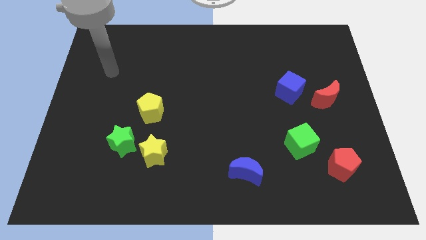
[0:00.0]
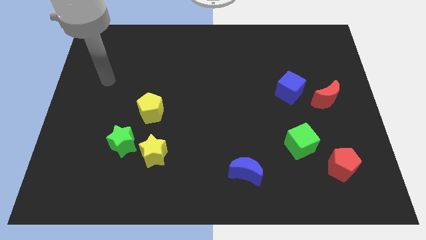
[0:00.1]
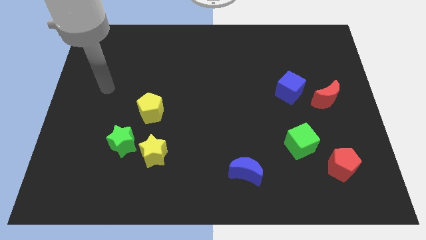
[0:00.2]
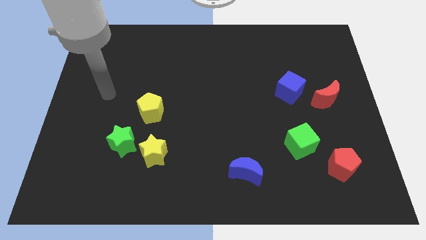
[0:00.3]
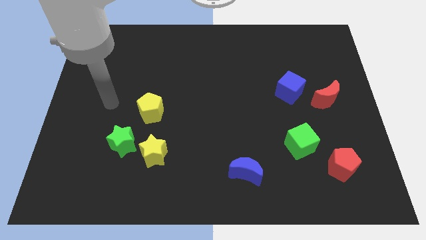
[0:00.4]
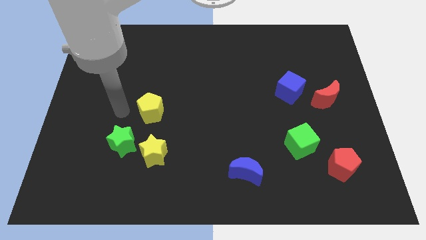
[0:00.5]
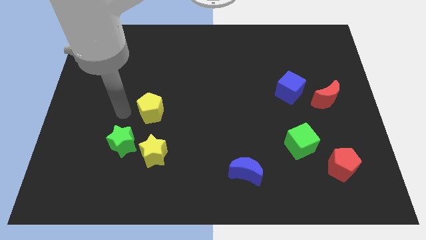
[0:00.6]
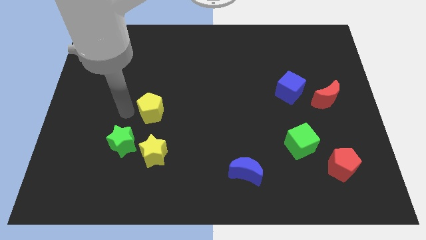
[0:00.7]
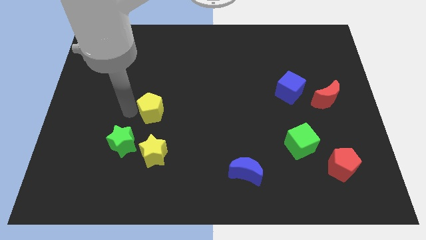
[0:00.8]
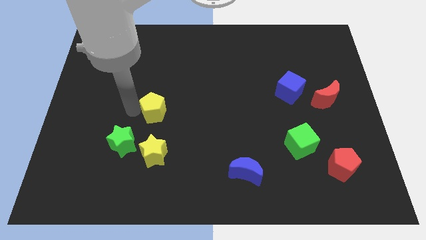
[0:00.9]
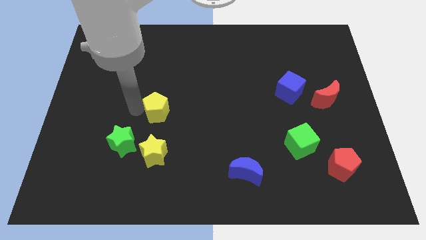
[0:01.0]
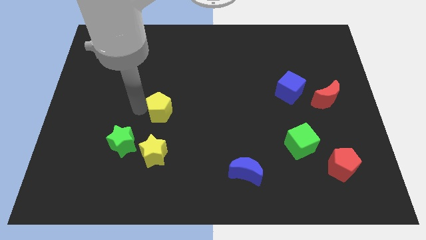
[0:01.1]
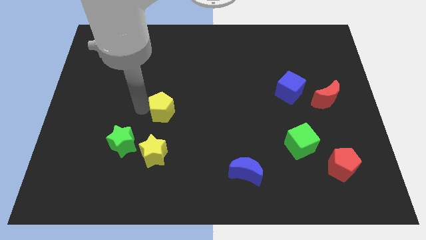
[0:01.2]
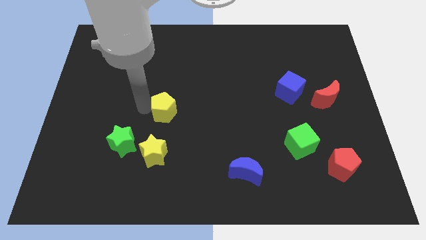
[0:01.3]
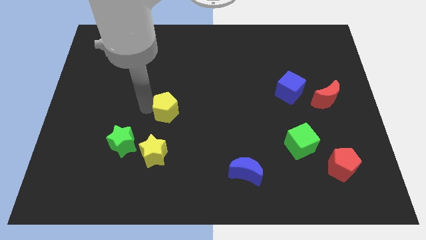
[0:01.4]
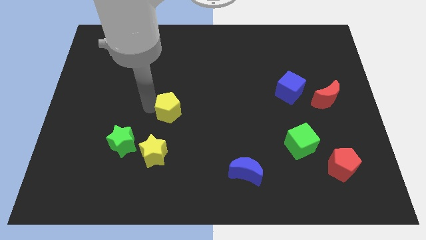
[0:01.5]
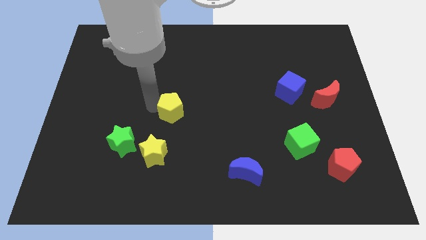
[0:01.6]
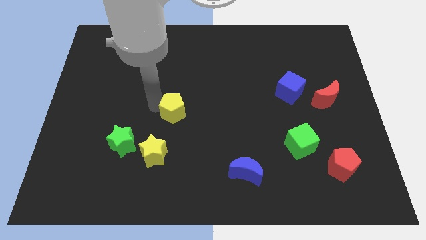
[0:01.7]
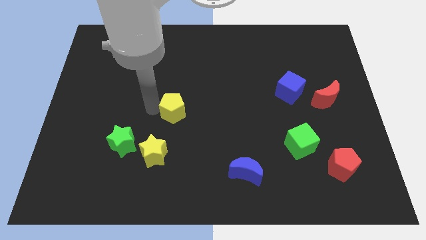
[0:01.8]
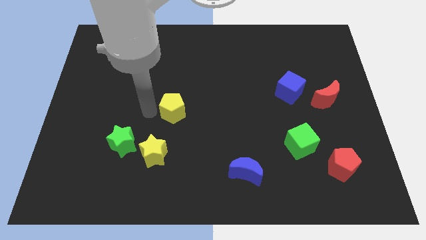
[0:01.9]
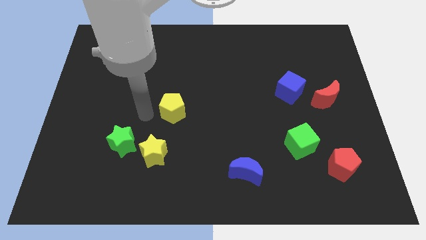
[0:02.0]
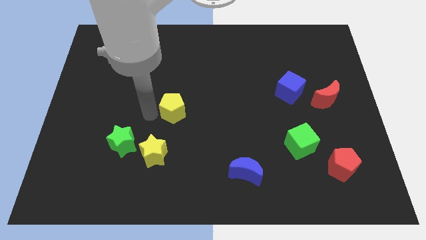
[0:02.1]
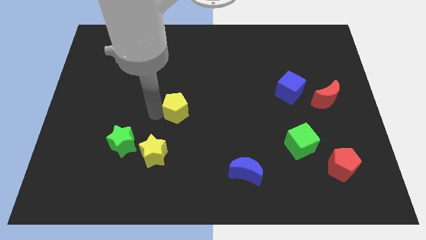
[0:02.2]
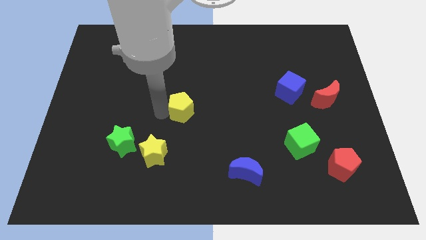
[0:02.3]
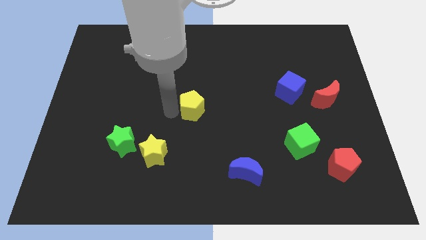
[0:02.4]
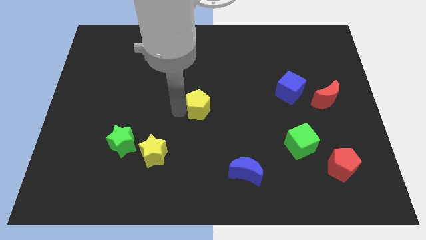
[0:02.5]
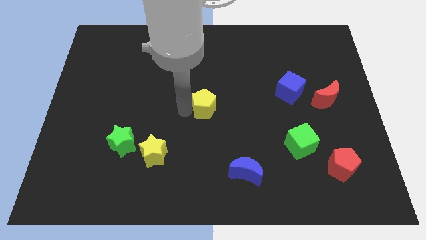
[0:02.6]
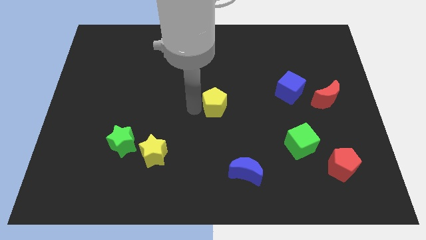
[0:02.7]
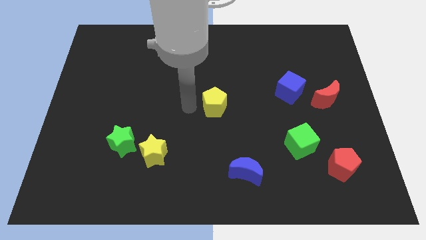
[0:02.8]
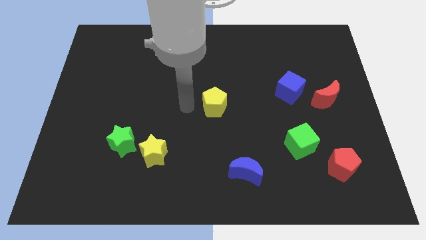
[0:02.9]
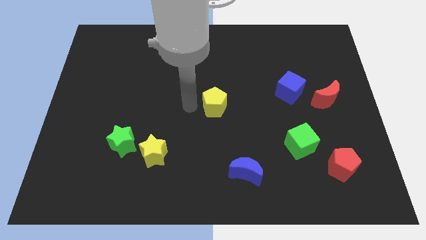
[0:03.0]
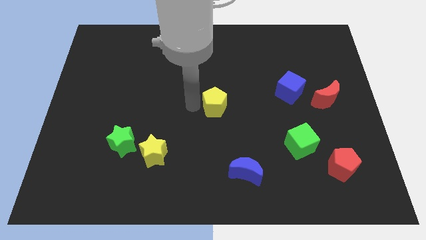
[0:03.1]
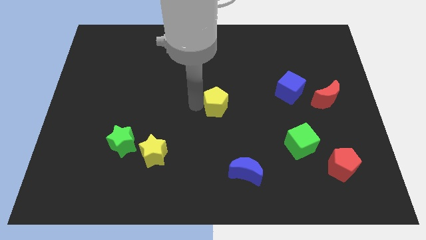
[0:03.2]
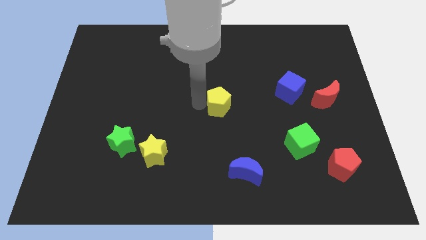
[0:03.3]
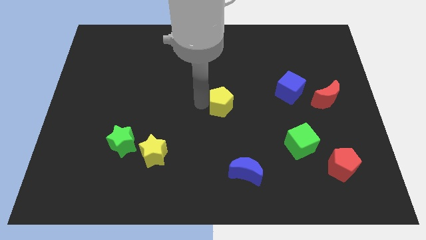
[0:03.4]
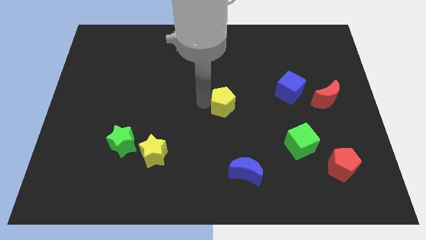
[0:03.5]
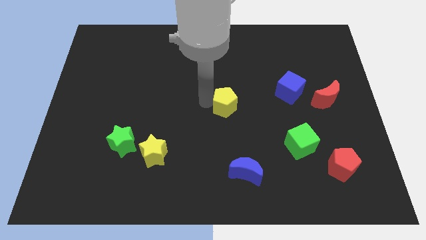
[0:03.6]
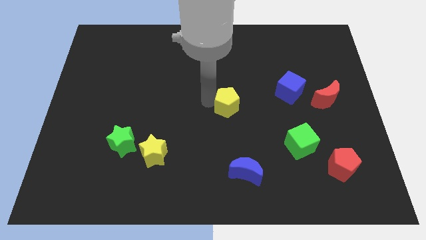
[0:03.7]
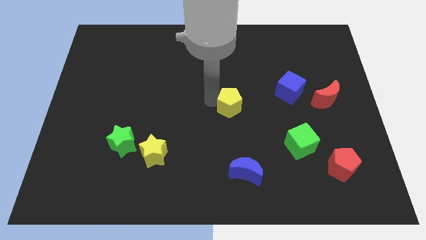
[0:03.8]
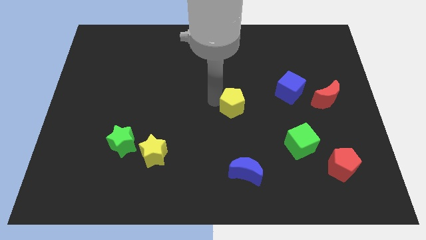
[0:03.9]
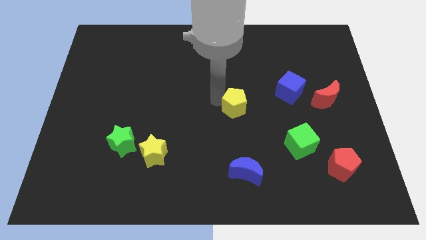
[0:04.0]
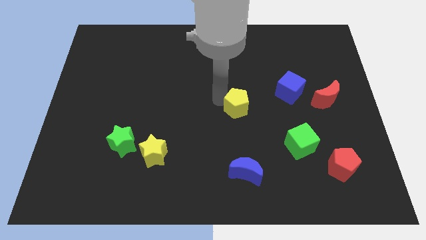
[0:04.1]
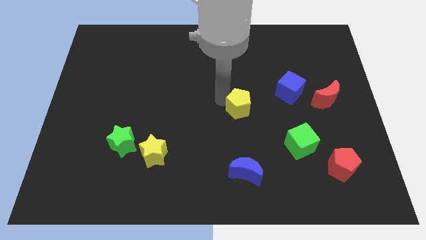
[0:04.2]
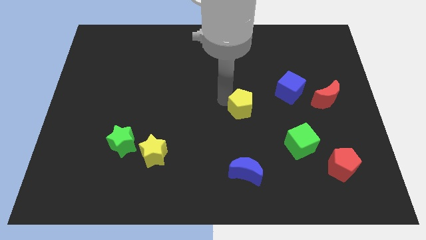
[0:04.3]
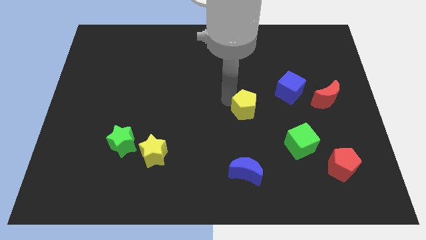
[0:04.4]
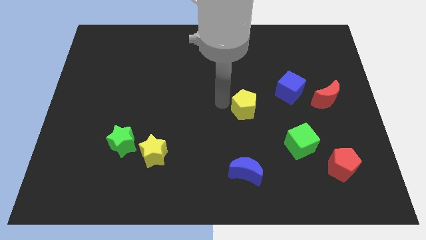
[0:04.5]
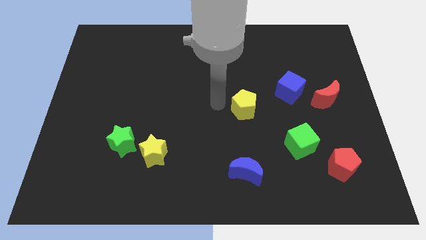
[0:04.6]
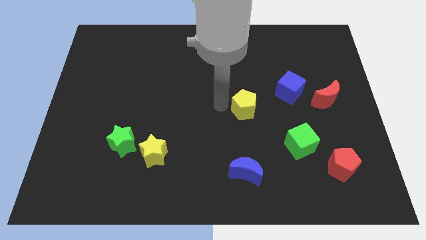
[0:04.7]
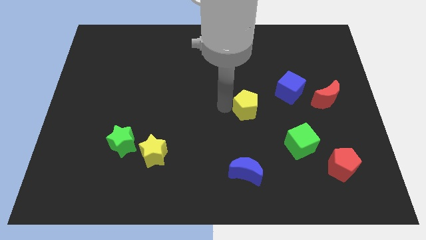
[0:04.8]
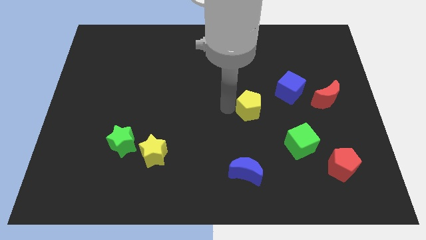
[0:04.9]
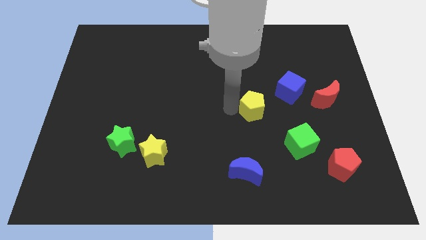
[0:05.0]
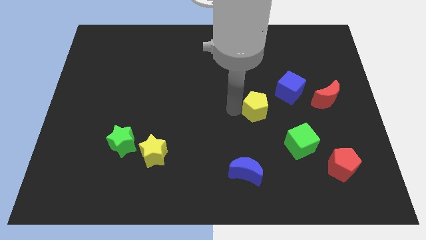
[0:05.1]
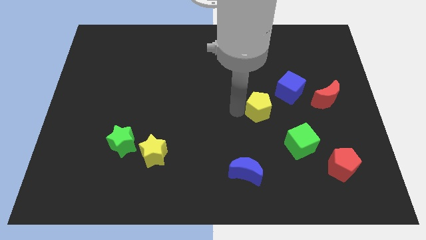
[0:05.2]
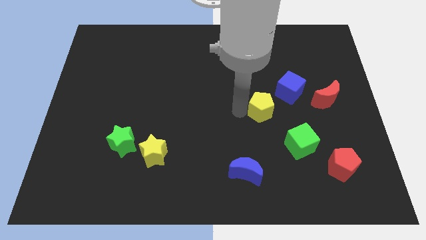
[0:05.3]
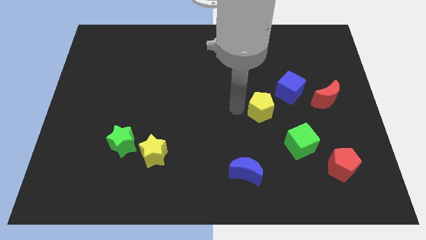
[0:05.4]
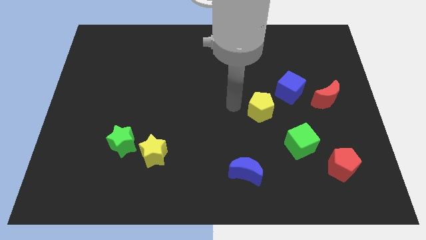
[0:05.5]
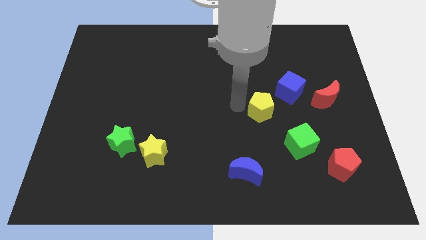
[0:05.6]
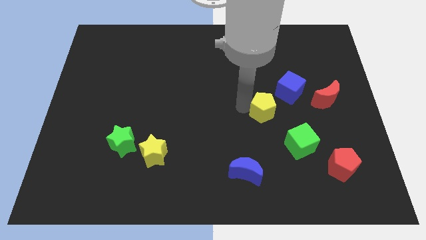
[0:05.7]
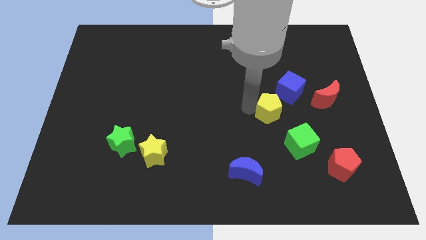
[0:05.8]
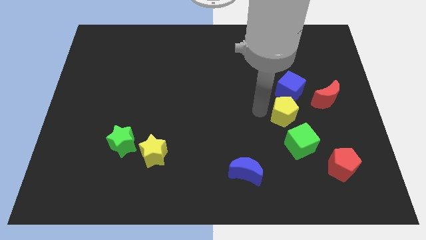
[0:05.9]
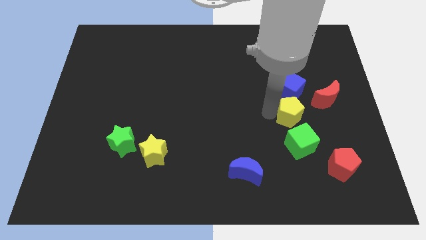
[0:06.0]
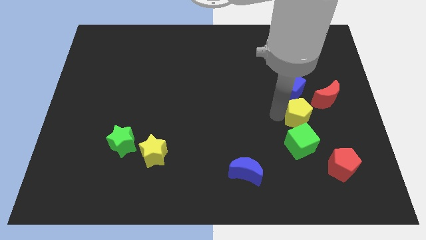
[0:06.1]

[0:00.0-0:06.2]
move the yellow pentagon to the bottom right side of the blue cube
